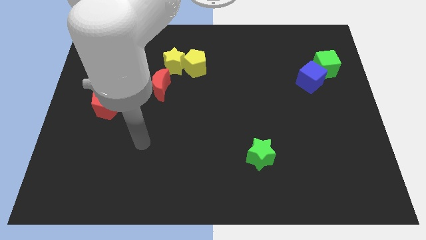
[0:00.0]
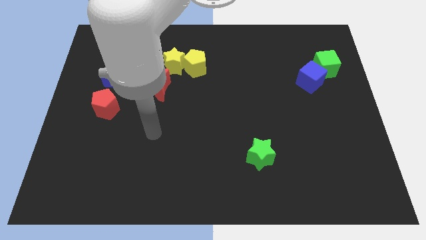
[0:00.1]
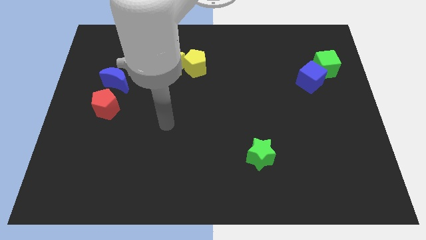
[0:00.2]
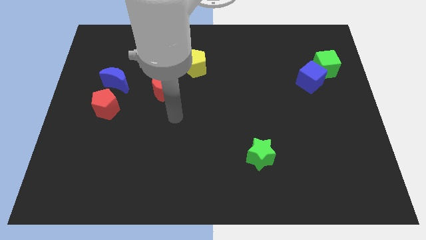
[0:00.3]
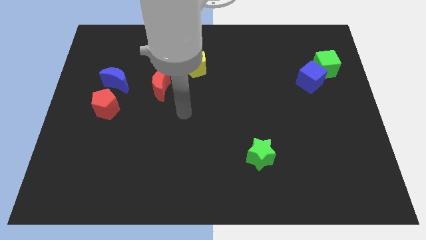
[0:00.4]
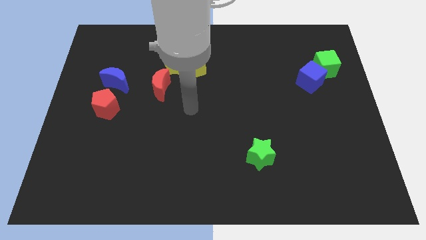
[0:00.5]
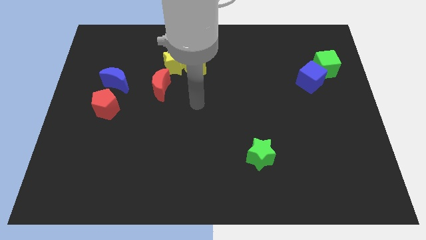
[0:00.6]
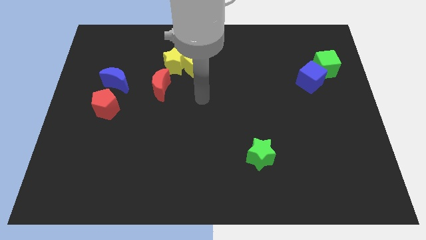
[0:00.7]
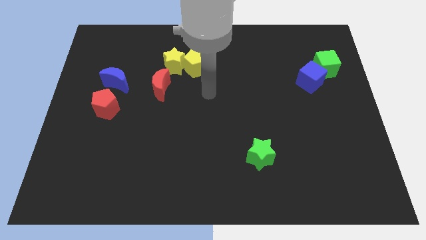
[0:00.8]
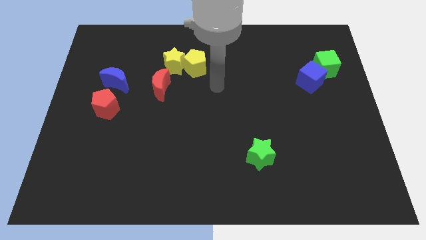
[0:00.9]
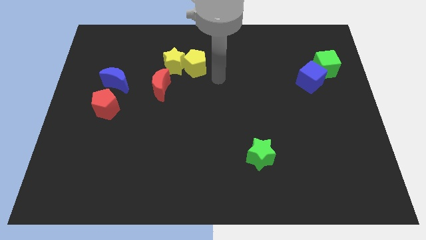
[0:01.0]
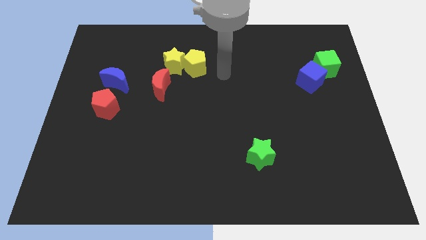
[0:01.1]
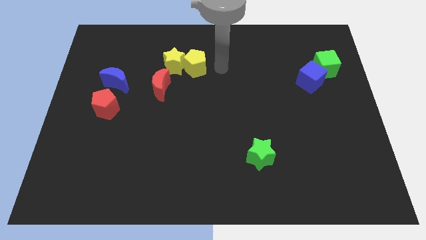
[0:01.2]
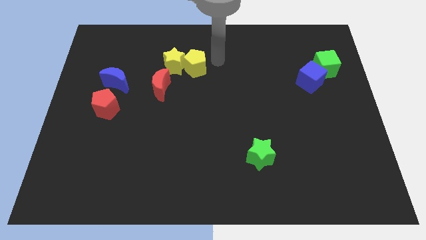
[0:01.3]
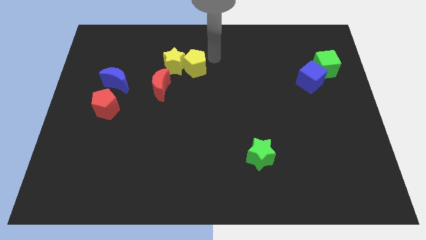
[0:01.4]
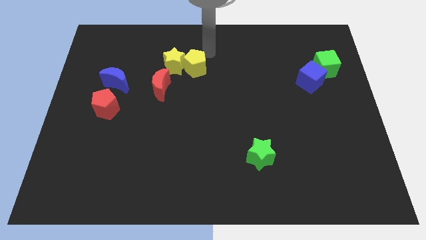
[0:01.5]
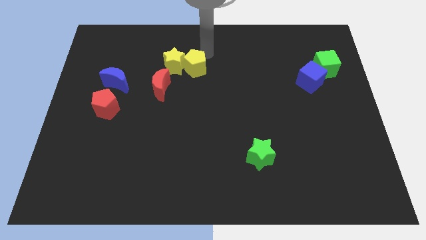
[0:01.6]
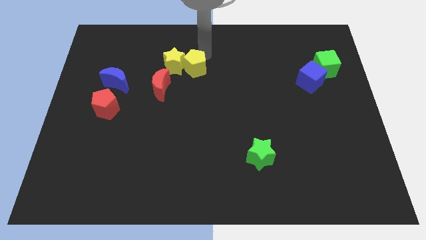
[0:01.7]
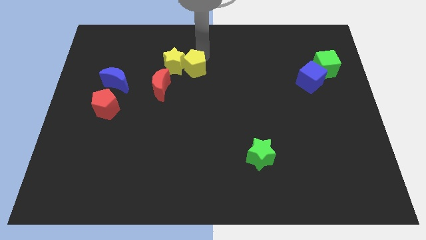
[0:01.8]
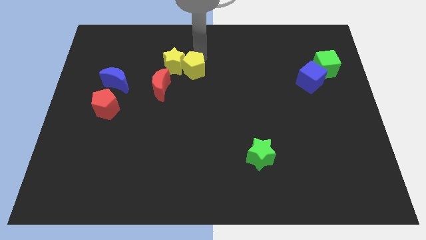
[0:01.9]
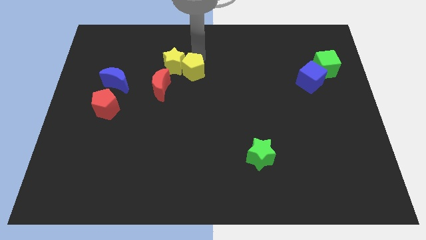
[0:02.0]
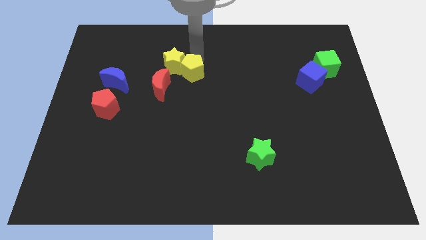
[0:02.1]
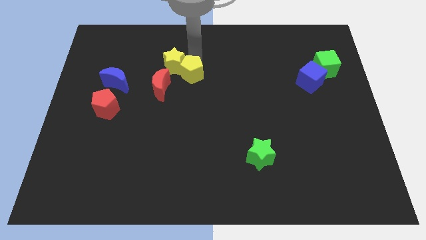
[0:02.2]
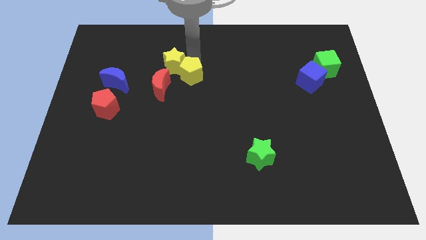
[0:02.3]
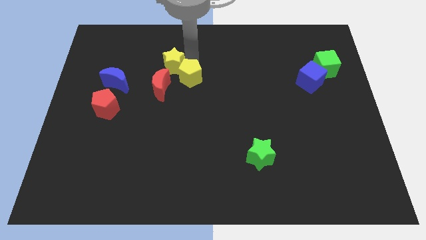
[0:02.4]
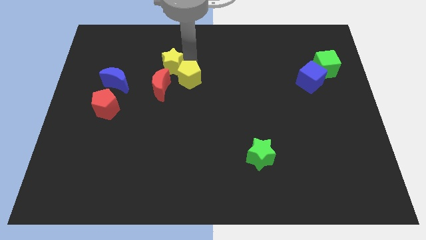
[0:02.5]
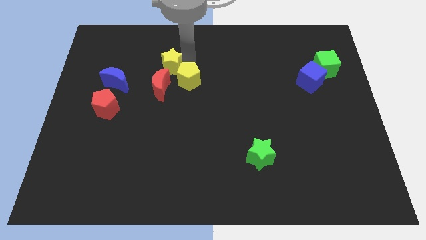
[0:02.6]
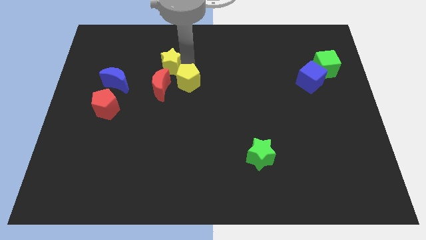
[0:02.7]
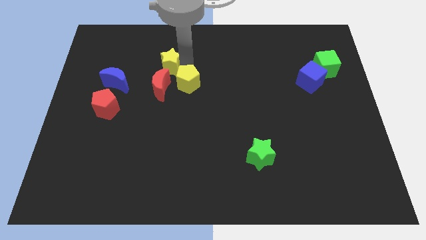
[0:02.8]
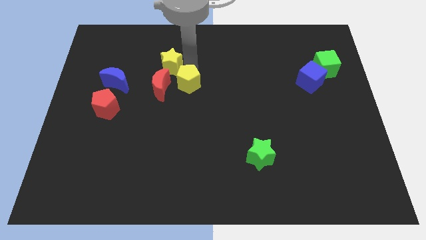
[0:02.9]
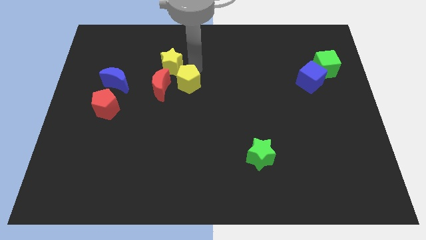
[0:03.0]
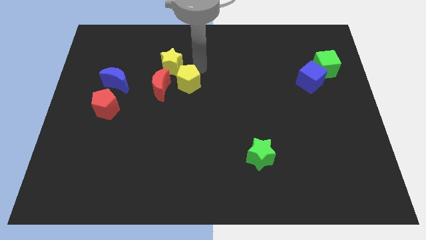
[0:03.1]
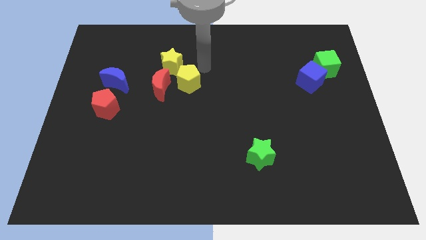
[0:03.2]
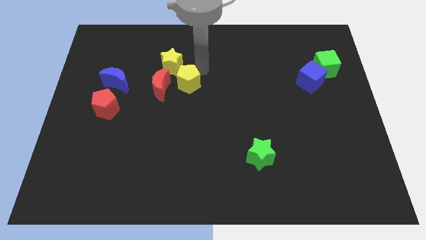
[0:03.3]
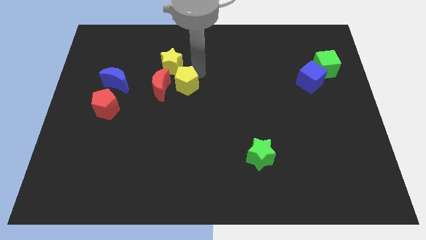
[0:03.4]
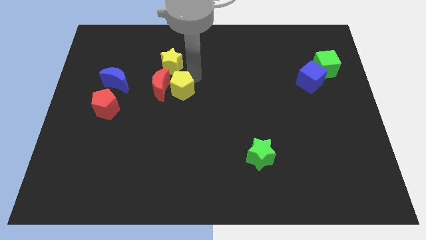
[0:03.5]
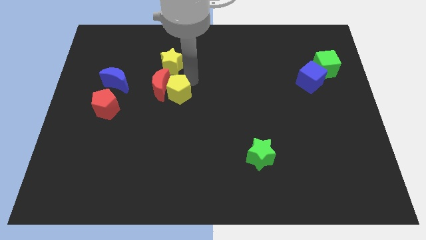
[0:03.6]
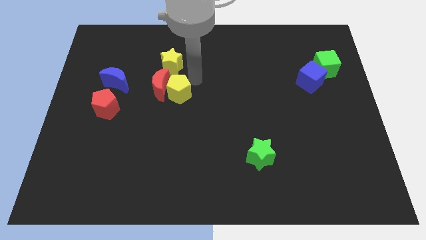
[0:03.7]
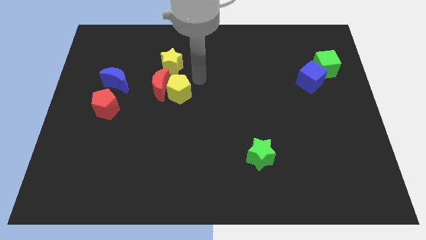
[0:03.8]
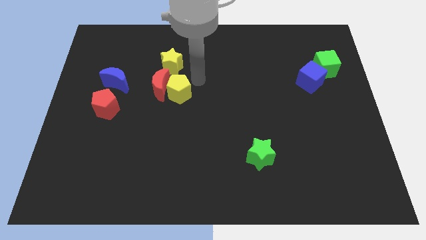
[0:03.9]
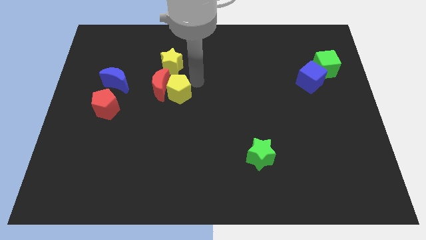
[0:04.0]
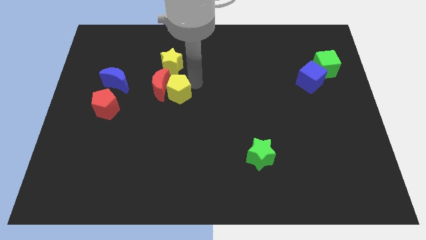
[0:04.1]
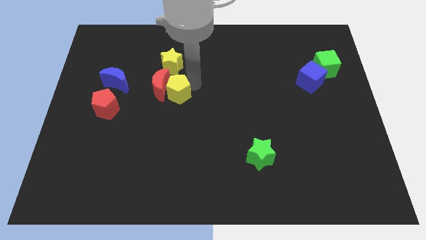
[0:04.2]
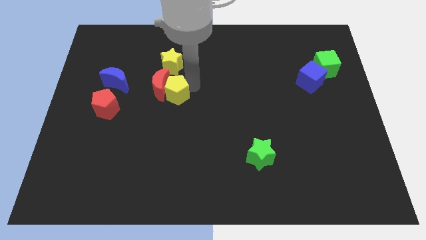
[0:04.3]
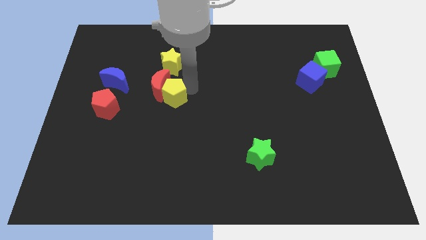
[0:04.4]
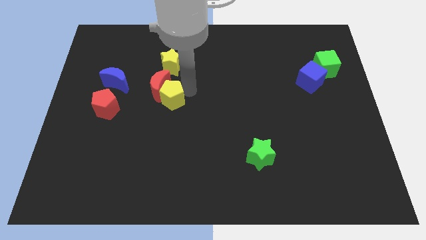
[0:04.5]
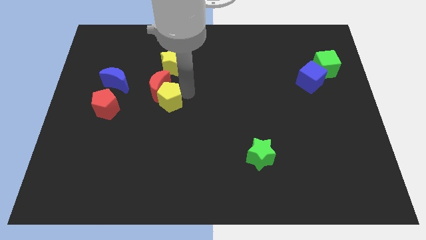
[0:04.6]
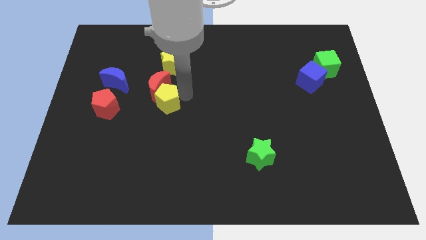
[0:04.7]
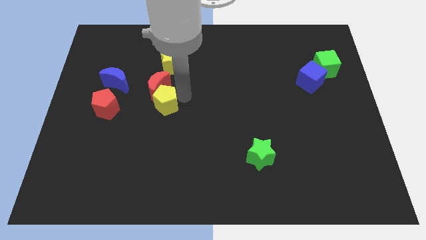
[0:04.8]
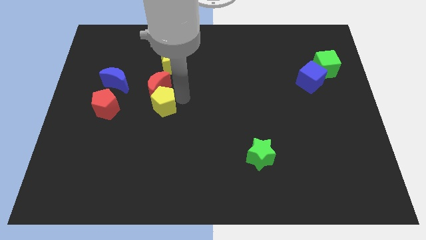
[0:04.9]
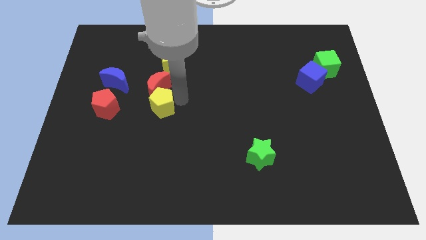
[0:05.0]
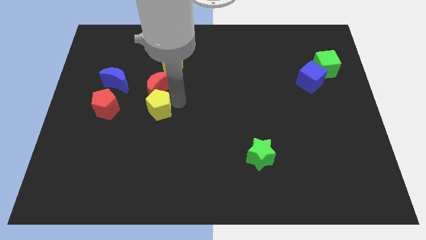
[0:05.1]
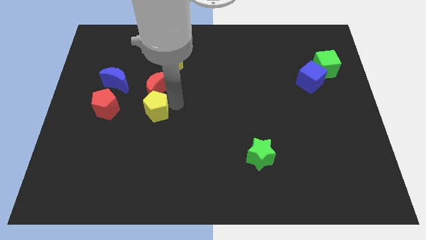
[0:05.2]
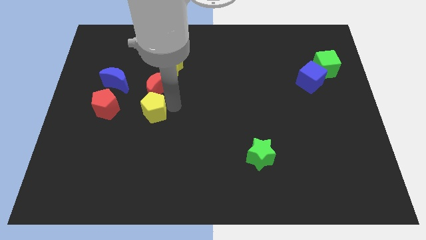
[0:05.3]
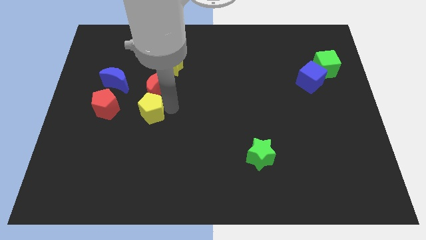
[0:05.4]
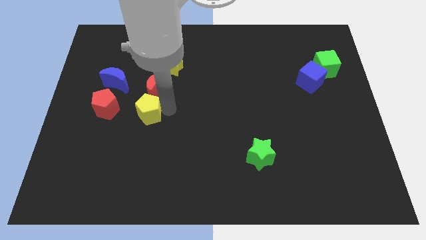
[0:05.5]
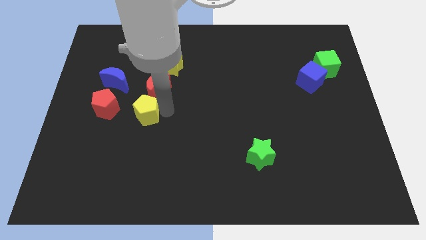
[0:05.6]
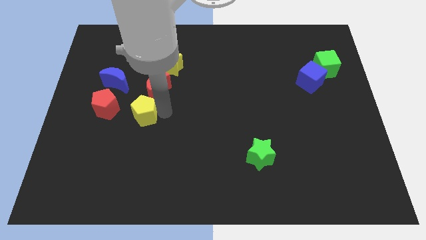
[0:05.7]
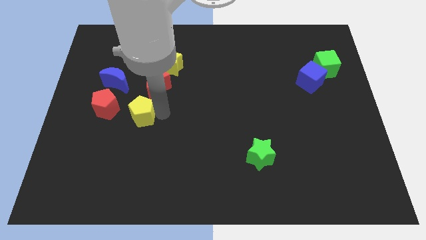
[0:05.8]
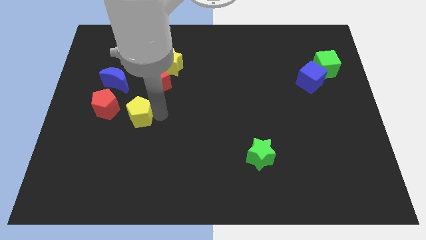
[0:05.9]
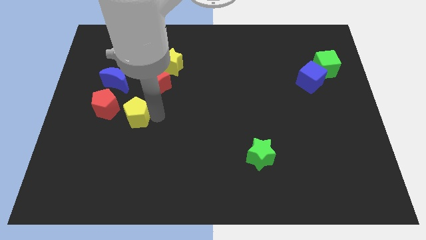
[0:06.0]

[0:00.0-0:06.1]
push the yellow pentagon down and left

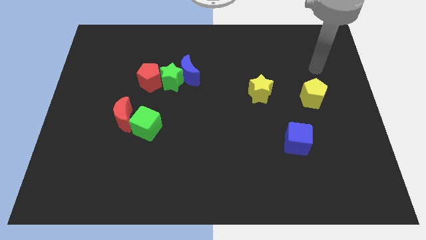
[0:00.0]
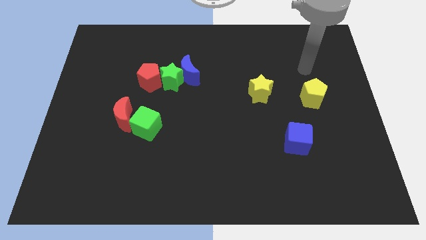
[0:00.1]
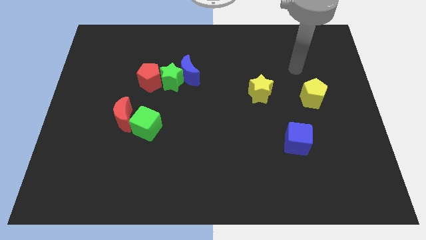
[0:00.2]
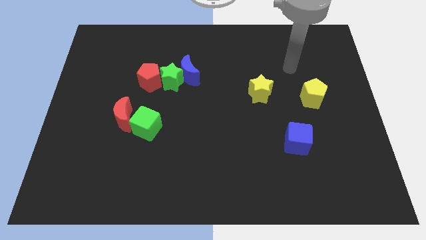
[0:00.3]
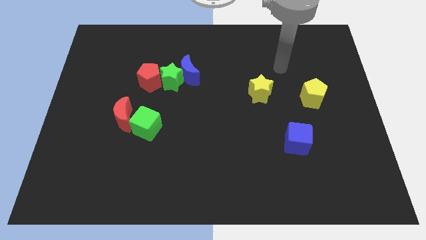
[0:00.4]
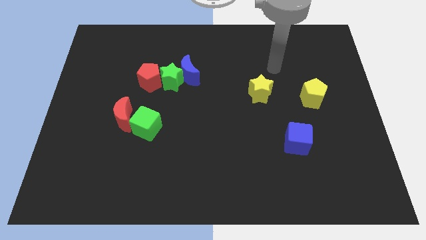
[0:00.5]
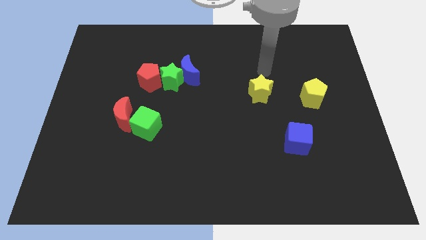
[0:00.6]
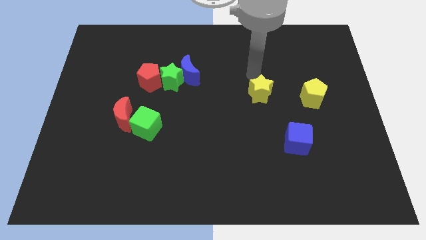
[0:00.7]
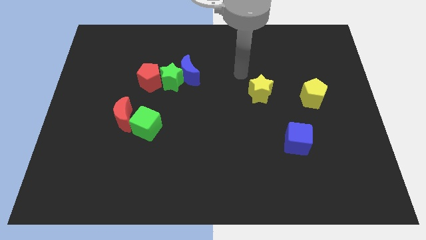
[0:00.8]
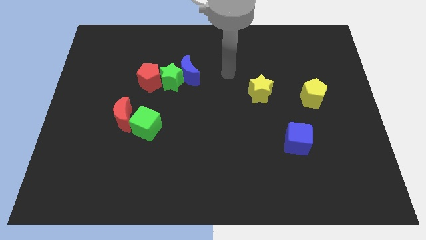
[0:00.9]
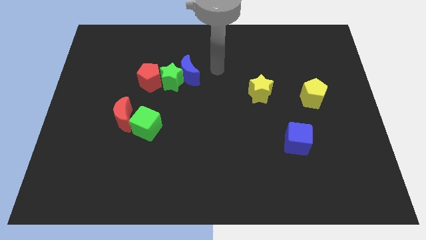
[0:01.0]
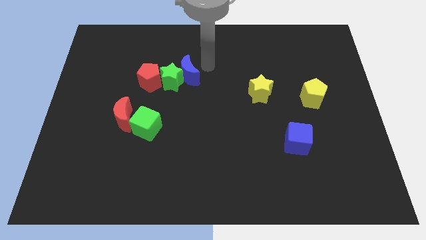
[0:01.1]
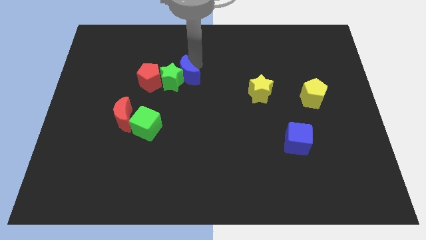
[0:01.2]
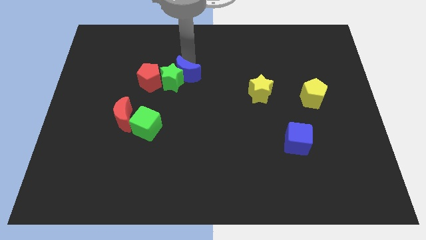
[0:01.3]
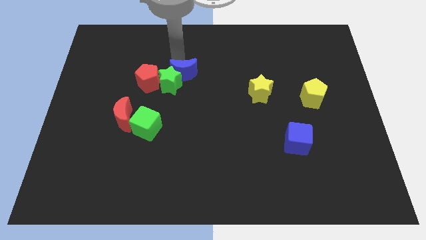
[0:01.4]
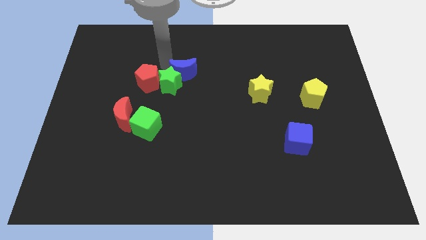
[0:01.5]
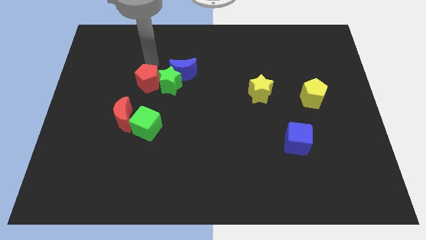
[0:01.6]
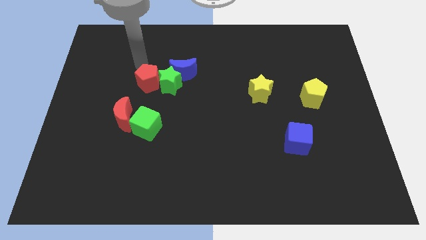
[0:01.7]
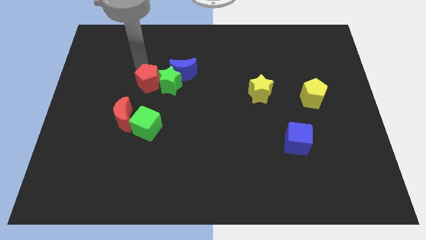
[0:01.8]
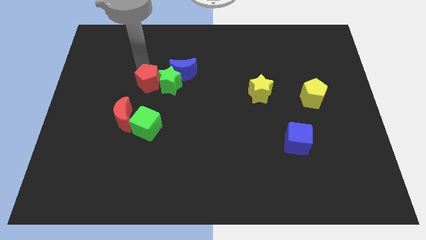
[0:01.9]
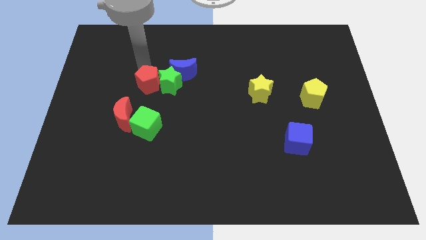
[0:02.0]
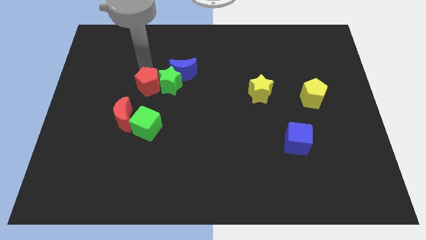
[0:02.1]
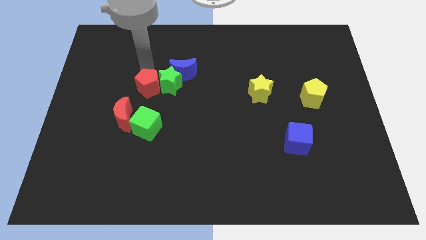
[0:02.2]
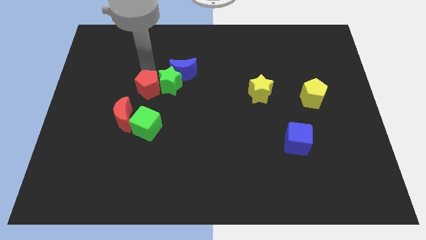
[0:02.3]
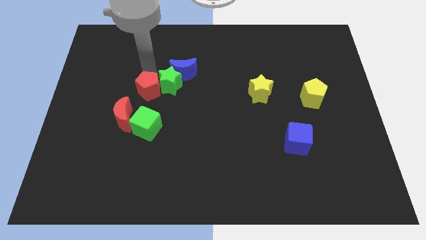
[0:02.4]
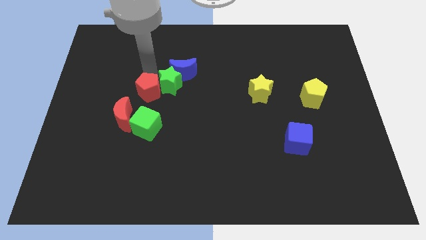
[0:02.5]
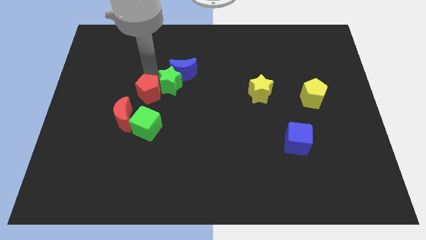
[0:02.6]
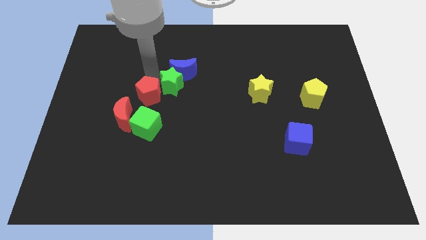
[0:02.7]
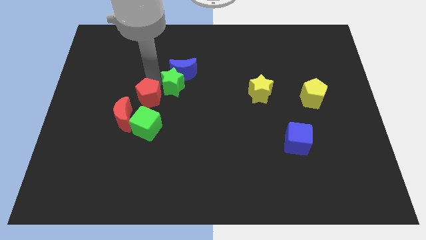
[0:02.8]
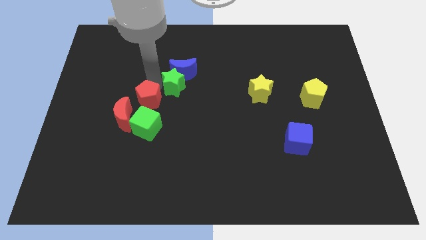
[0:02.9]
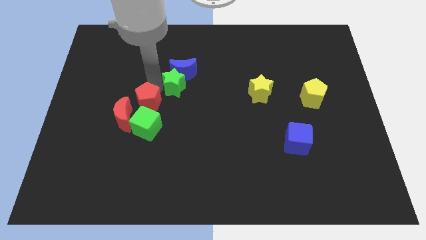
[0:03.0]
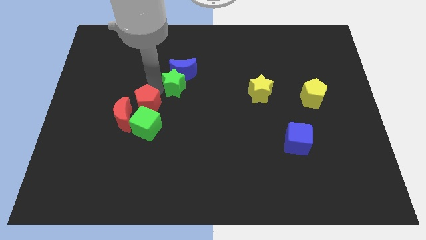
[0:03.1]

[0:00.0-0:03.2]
slightly push the red pentagon downwards
